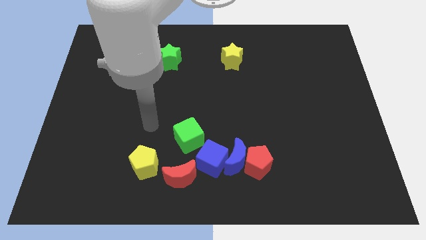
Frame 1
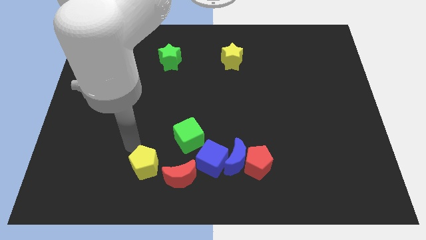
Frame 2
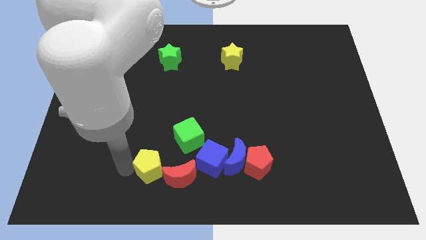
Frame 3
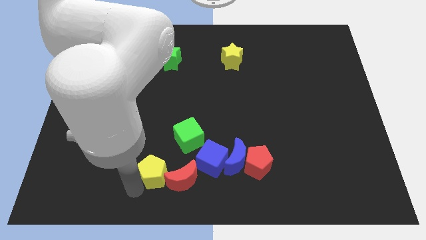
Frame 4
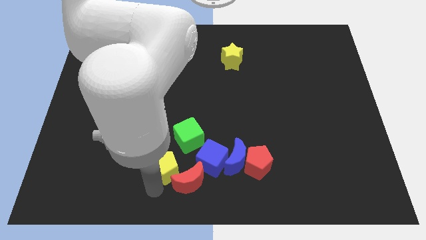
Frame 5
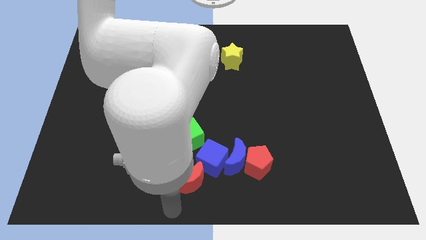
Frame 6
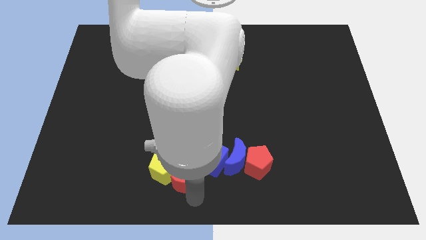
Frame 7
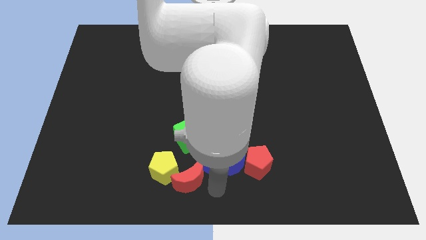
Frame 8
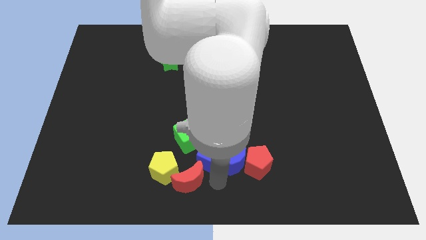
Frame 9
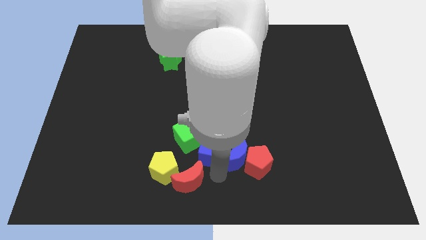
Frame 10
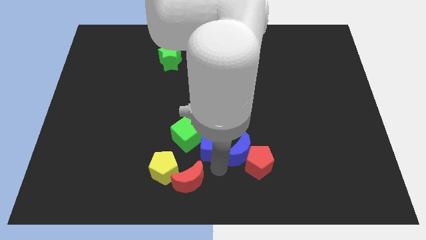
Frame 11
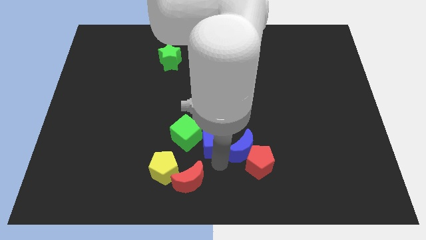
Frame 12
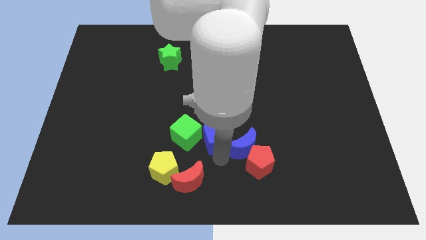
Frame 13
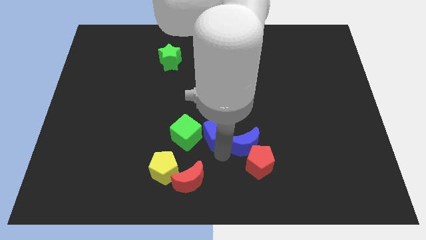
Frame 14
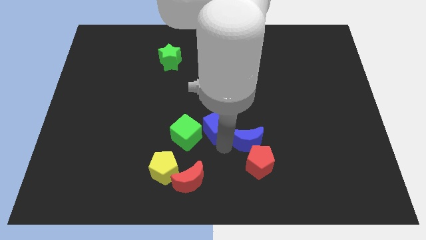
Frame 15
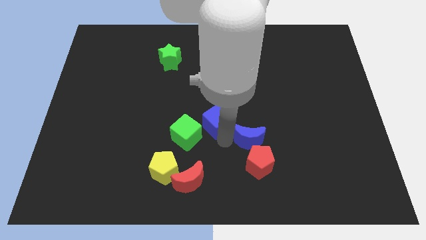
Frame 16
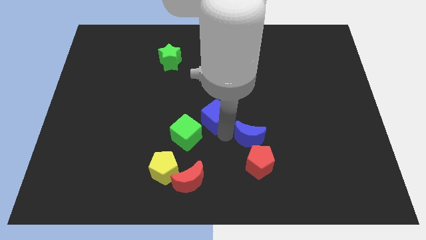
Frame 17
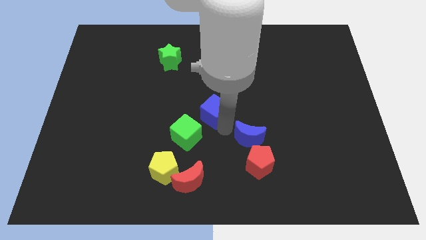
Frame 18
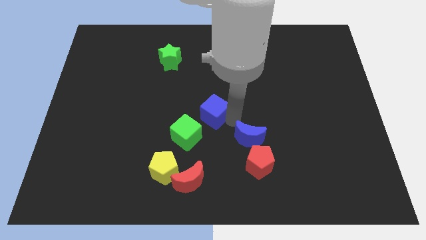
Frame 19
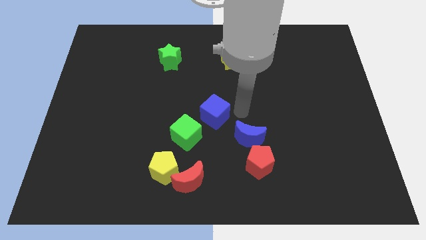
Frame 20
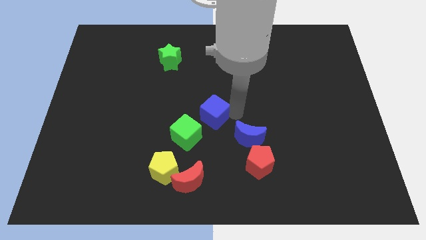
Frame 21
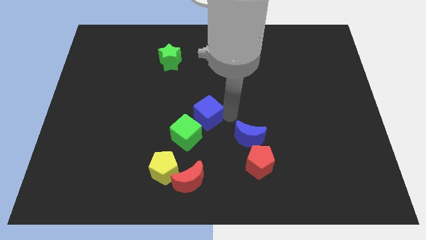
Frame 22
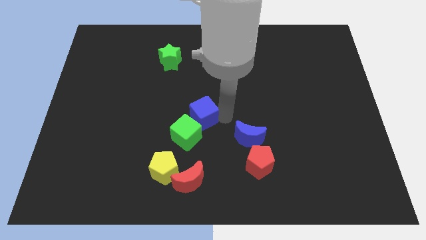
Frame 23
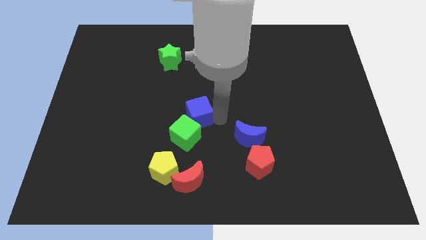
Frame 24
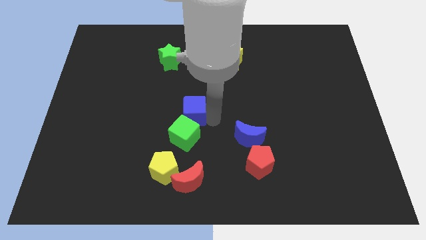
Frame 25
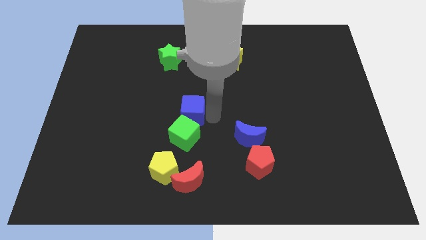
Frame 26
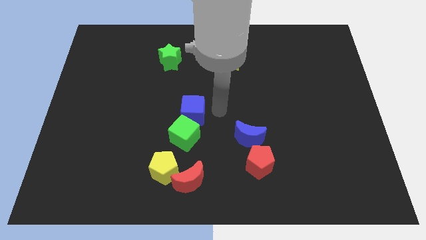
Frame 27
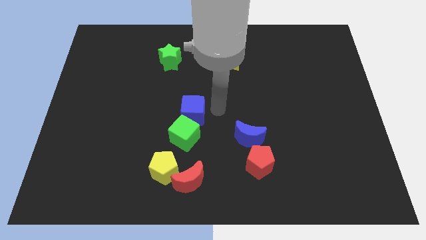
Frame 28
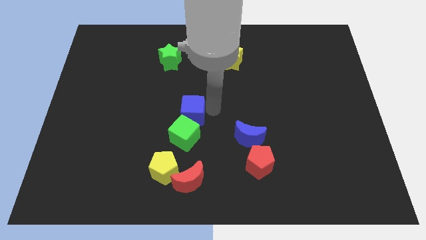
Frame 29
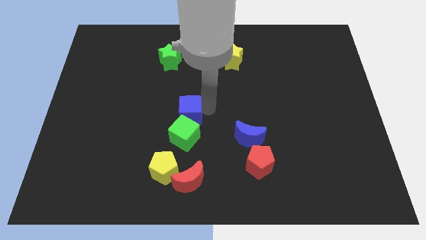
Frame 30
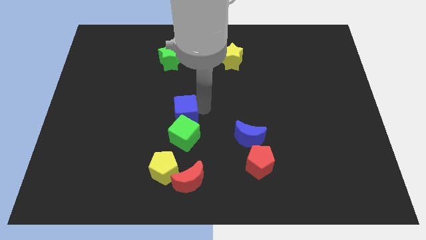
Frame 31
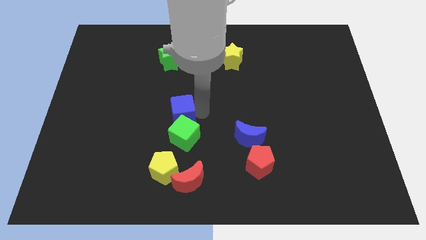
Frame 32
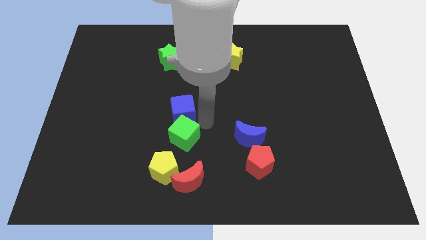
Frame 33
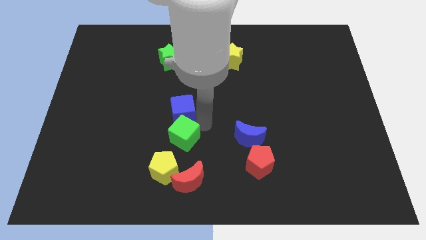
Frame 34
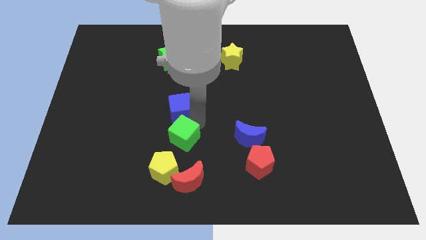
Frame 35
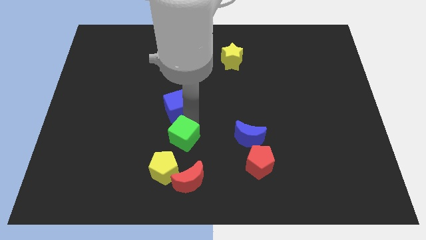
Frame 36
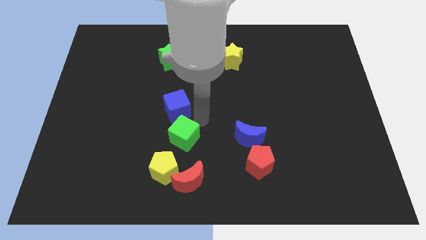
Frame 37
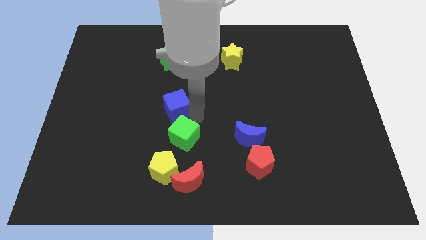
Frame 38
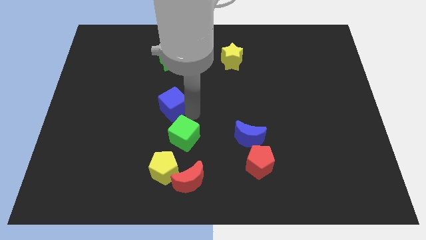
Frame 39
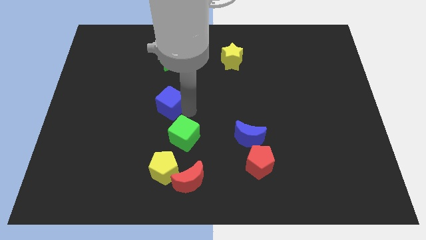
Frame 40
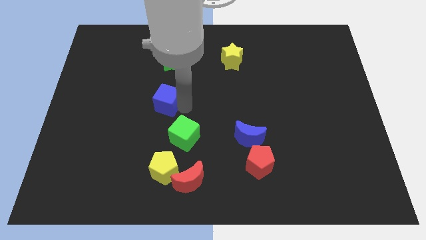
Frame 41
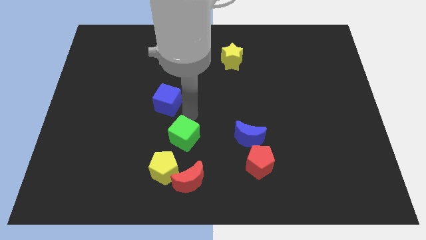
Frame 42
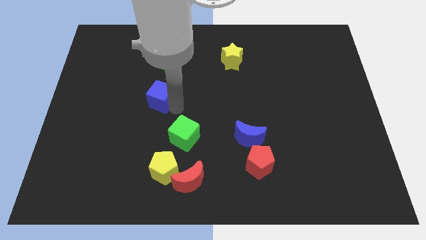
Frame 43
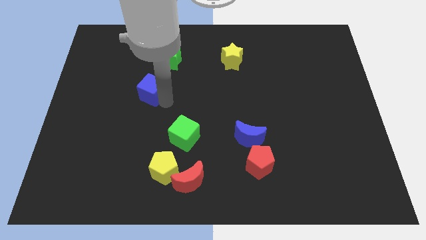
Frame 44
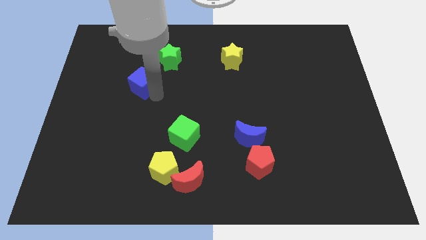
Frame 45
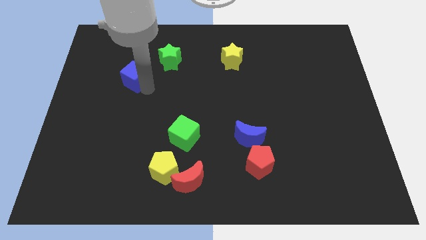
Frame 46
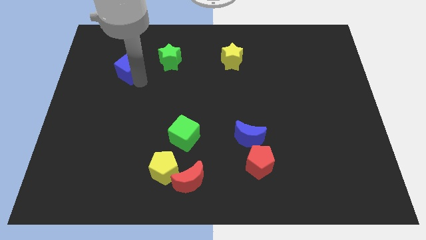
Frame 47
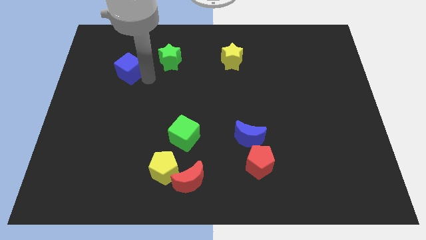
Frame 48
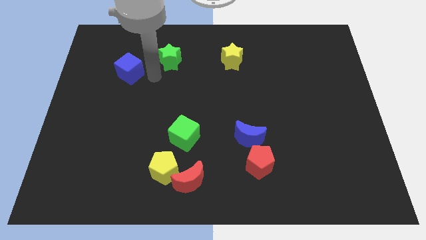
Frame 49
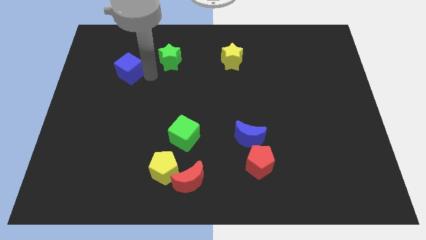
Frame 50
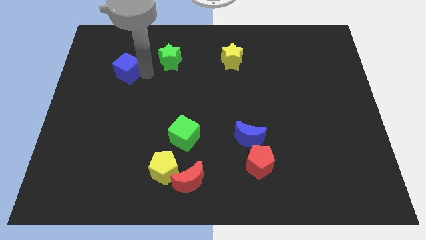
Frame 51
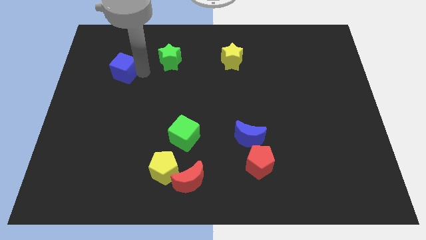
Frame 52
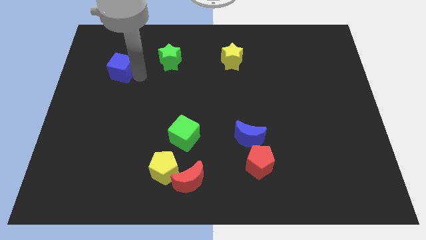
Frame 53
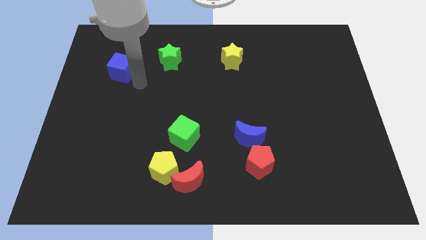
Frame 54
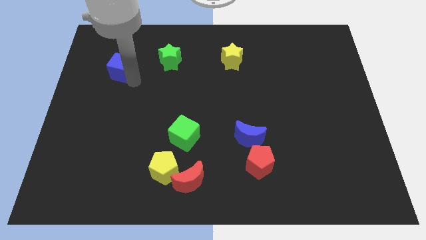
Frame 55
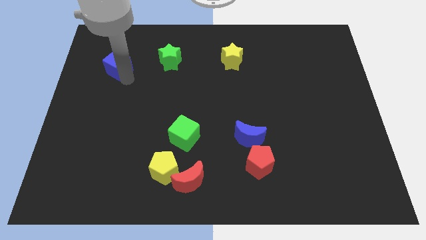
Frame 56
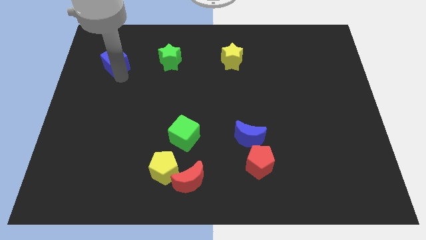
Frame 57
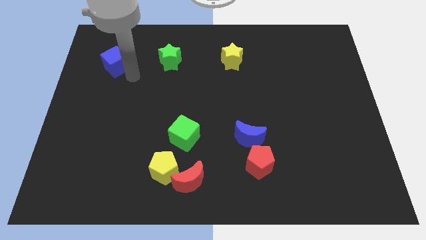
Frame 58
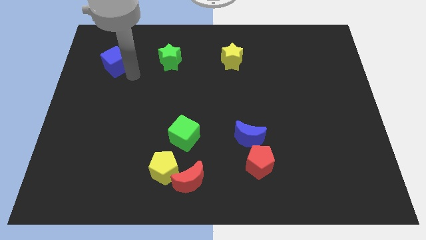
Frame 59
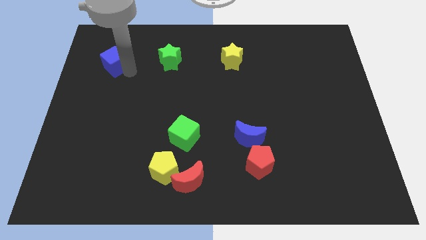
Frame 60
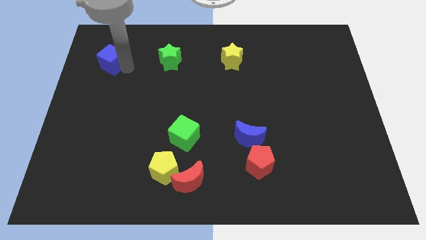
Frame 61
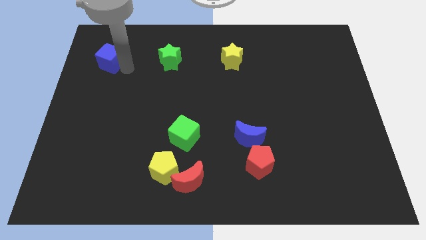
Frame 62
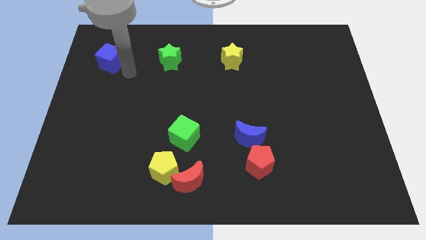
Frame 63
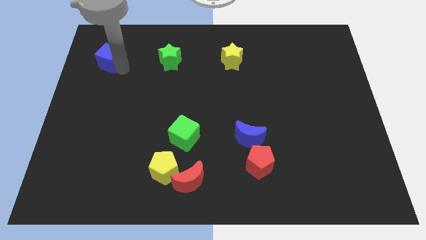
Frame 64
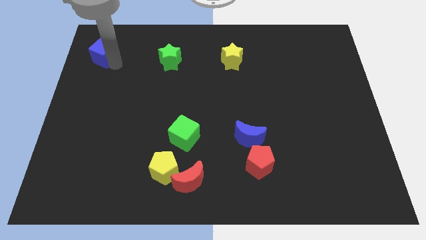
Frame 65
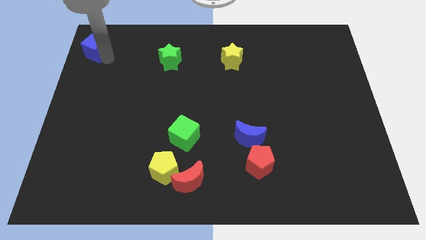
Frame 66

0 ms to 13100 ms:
put the blue cube to the top left corner
